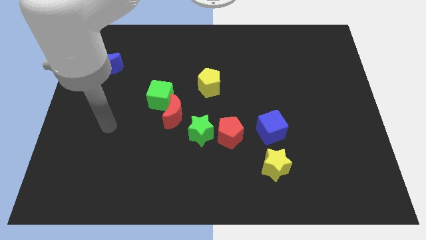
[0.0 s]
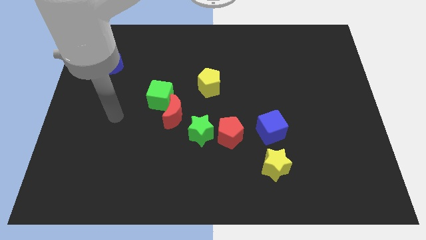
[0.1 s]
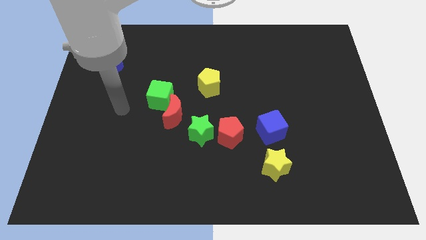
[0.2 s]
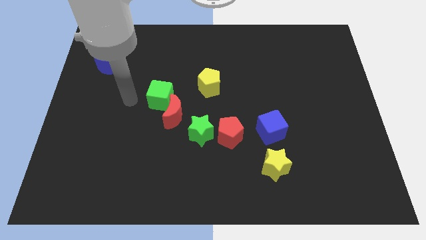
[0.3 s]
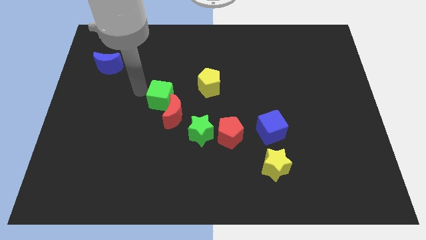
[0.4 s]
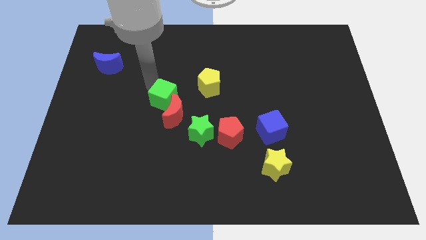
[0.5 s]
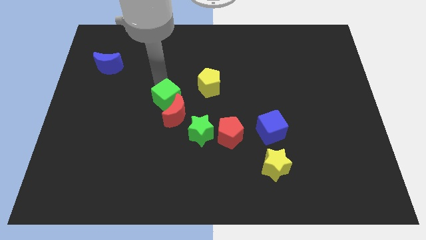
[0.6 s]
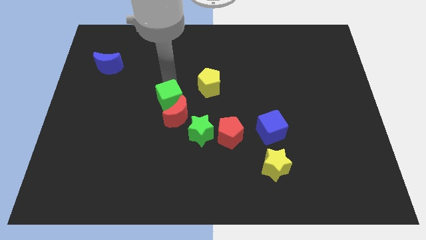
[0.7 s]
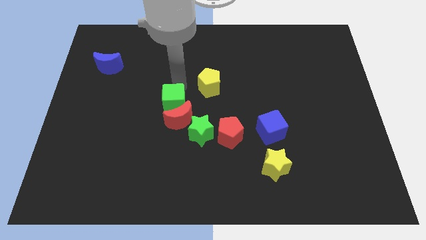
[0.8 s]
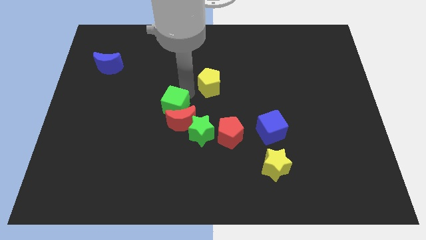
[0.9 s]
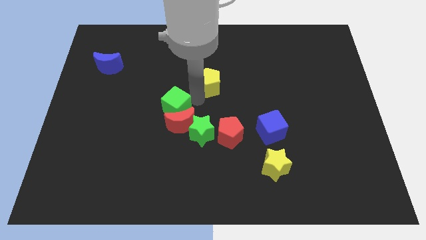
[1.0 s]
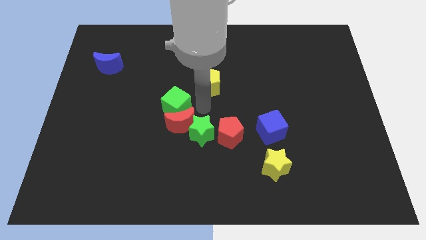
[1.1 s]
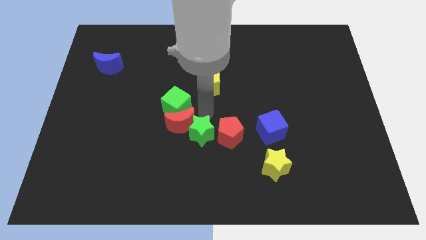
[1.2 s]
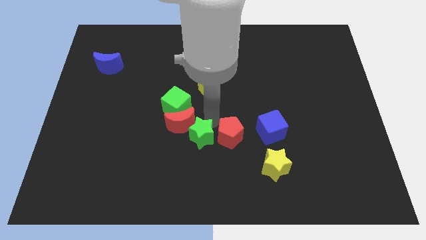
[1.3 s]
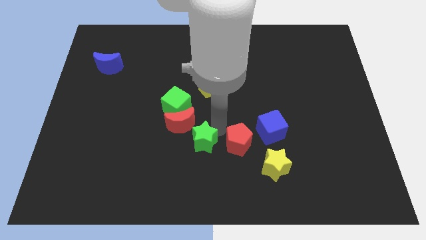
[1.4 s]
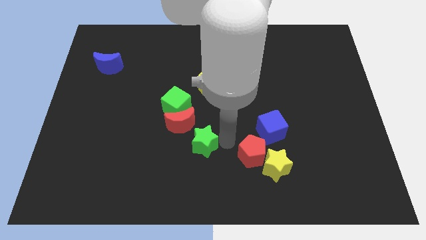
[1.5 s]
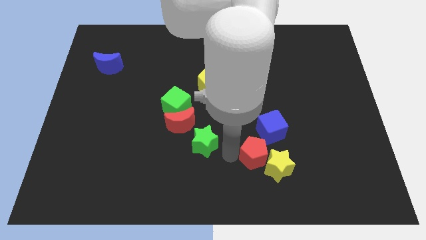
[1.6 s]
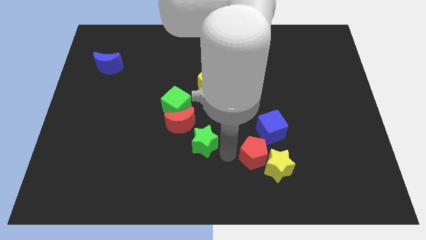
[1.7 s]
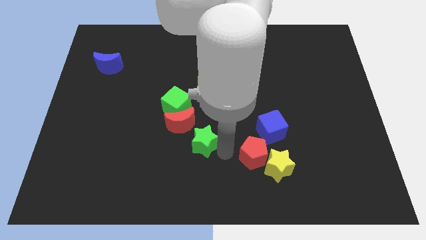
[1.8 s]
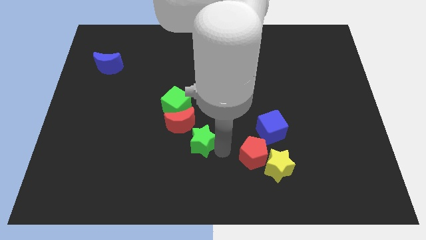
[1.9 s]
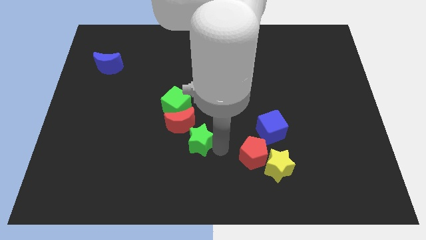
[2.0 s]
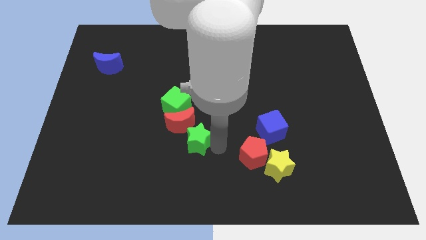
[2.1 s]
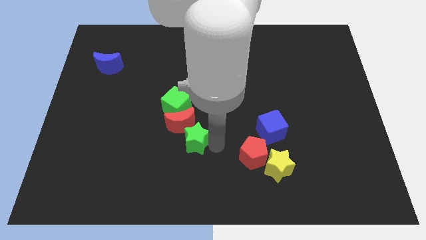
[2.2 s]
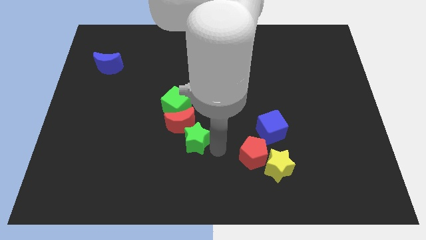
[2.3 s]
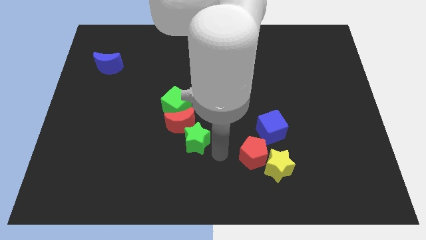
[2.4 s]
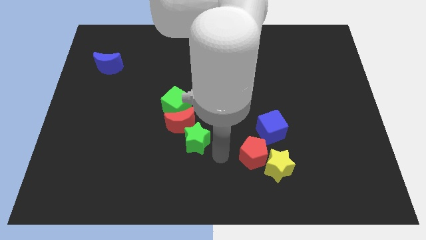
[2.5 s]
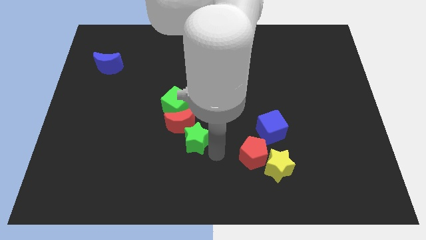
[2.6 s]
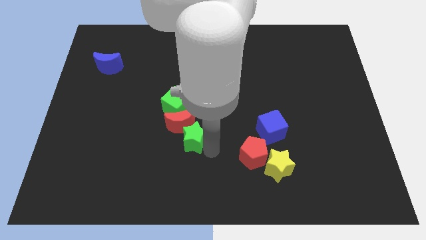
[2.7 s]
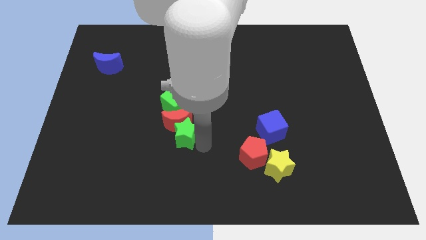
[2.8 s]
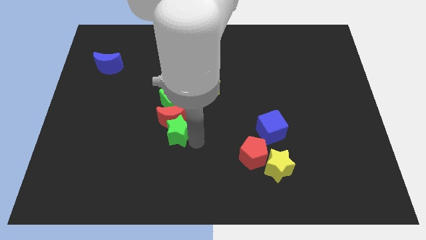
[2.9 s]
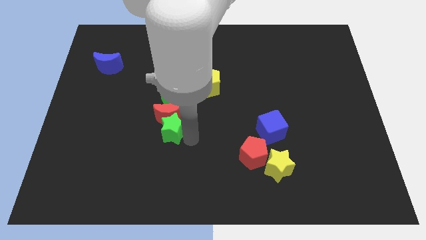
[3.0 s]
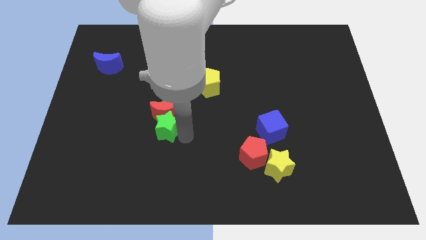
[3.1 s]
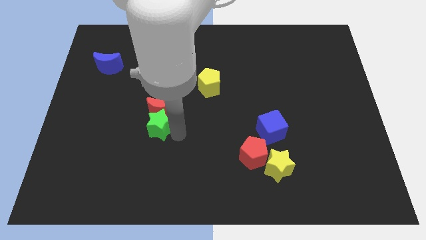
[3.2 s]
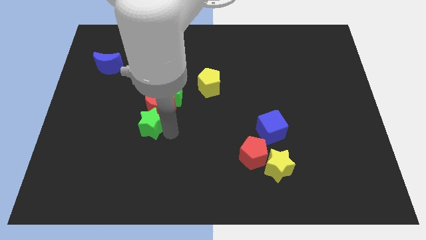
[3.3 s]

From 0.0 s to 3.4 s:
move the green star upwards and then left somewhat

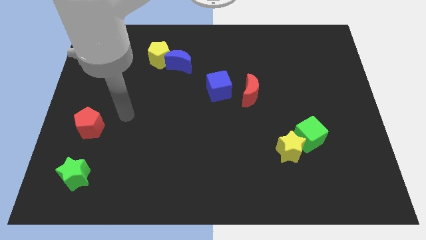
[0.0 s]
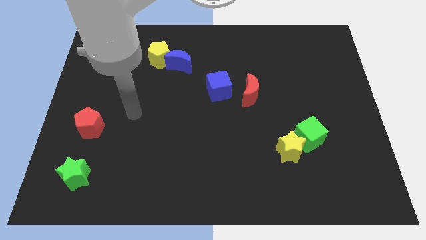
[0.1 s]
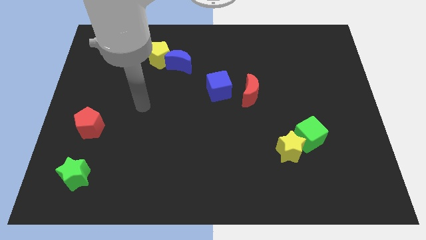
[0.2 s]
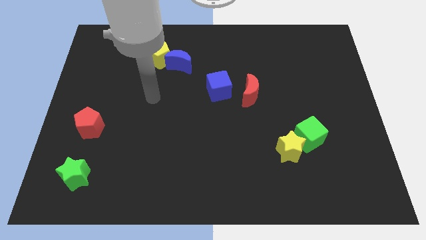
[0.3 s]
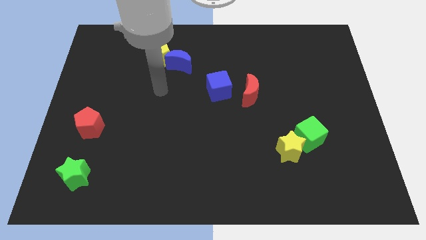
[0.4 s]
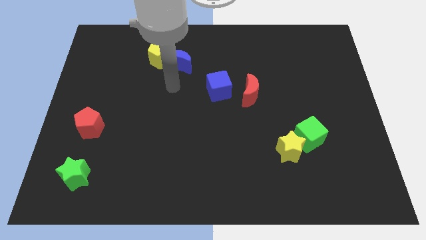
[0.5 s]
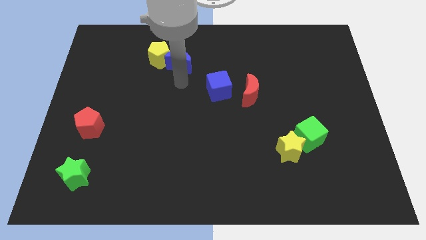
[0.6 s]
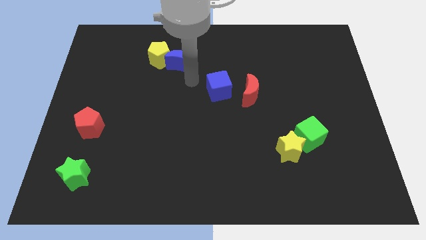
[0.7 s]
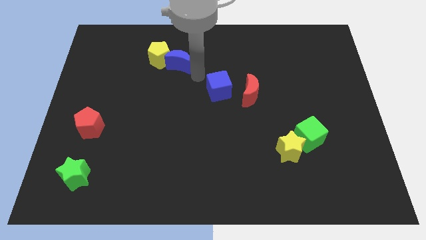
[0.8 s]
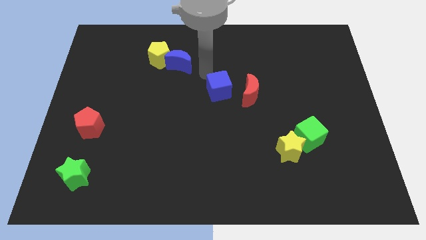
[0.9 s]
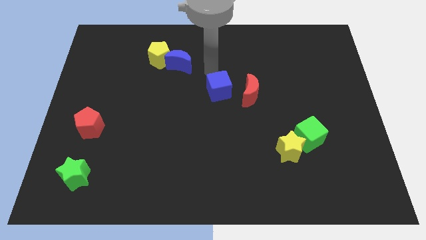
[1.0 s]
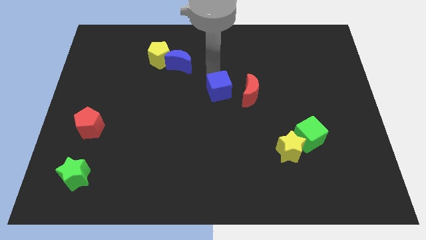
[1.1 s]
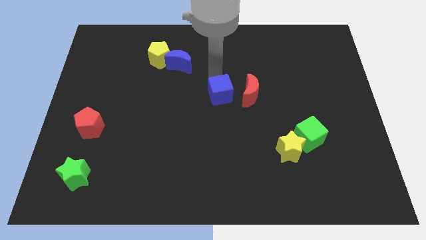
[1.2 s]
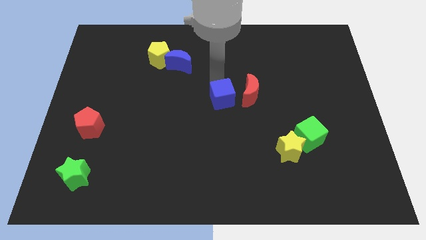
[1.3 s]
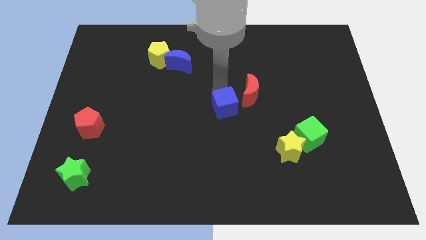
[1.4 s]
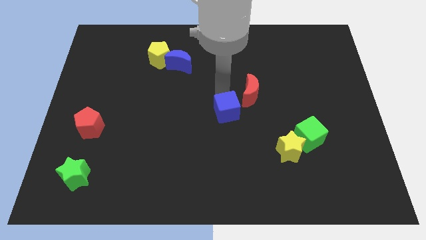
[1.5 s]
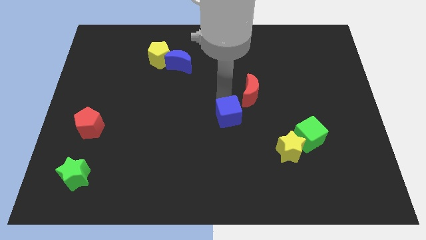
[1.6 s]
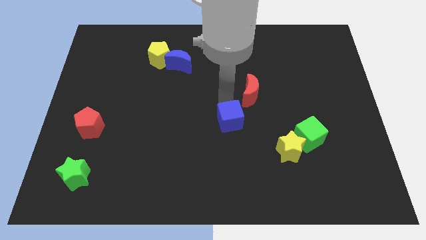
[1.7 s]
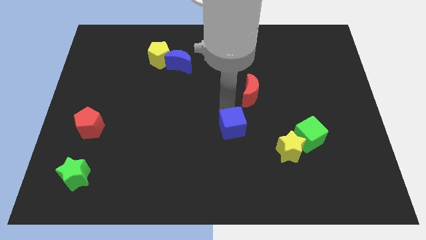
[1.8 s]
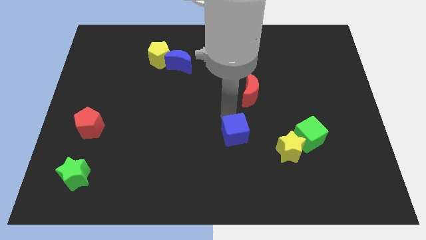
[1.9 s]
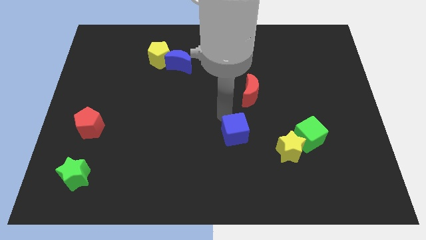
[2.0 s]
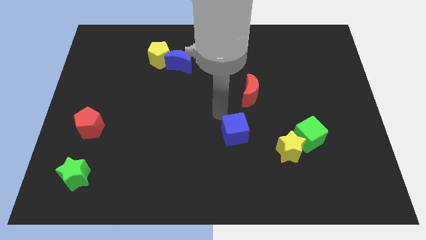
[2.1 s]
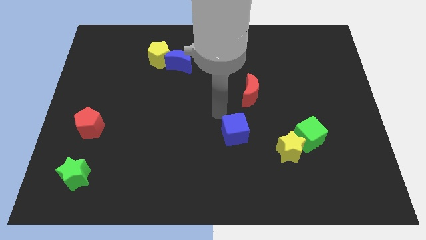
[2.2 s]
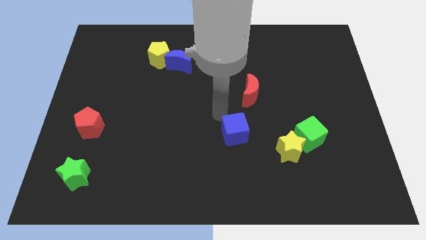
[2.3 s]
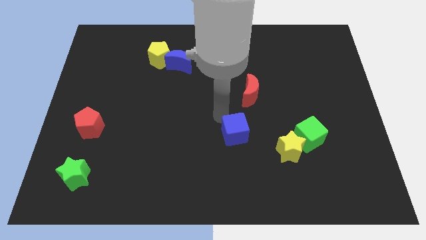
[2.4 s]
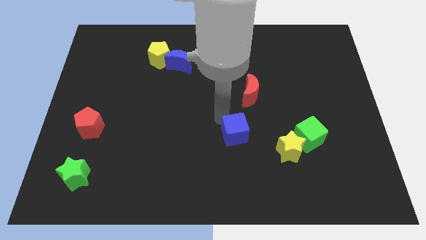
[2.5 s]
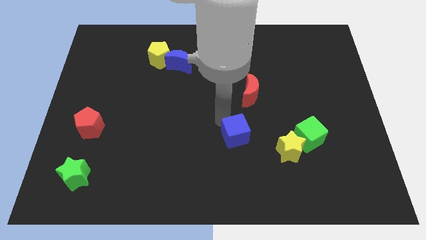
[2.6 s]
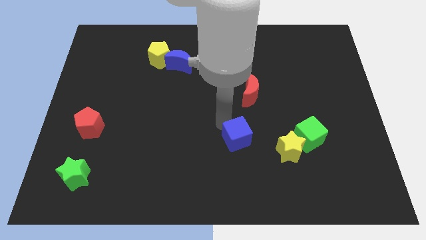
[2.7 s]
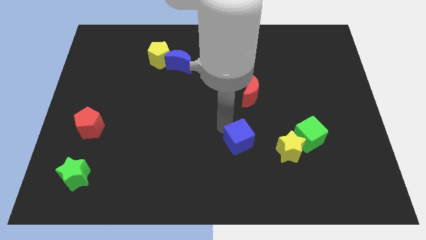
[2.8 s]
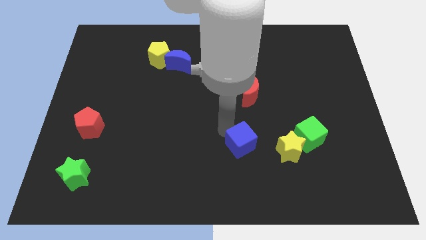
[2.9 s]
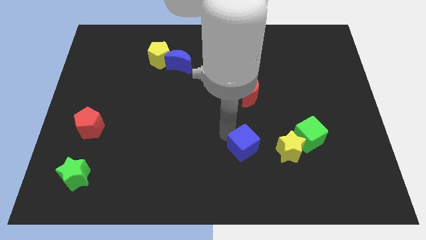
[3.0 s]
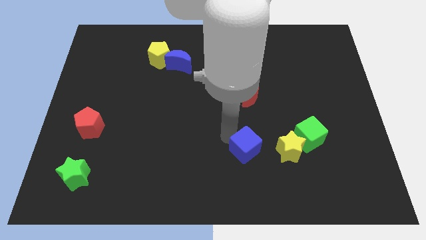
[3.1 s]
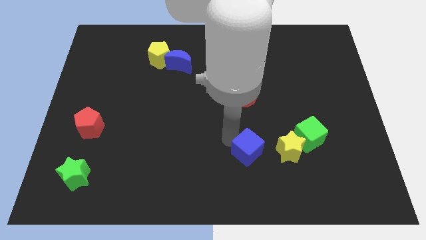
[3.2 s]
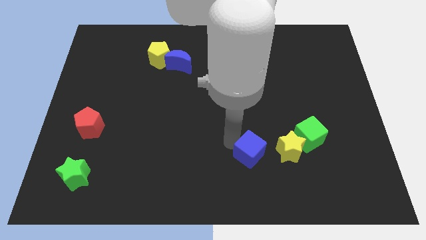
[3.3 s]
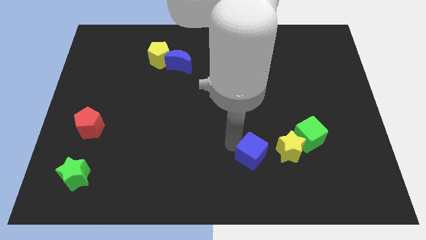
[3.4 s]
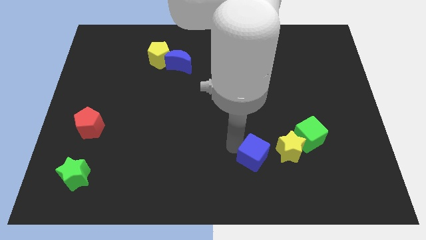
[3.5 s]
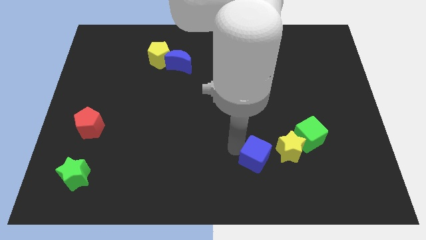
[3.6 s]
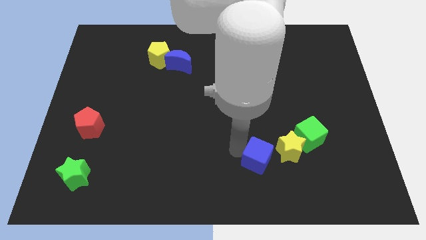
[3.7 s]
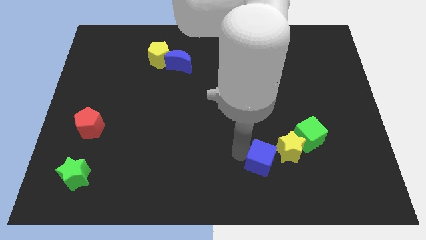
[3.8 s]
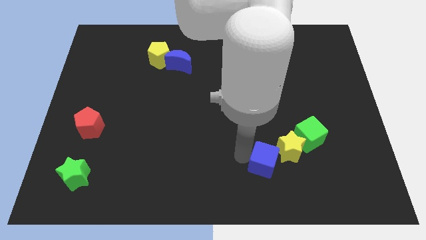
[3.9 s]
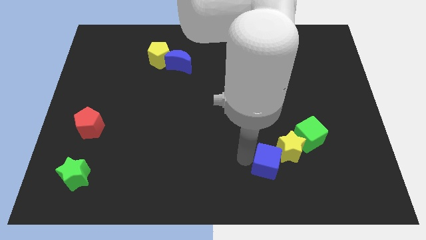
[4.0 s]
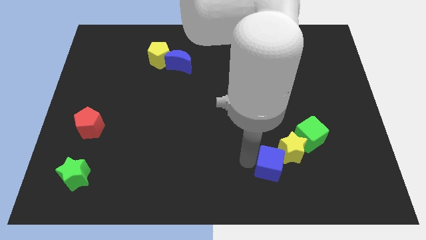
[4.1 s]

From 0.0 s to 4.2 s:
slide the blue cube down and then to the right

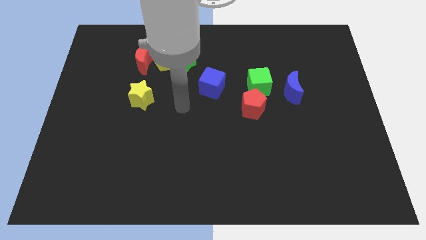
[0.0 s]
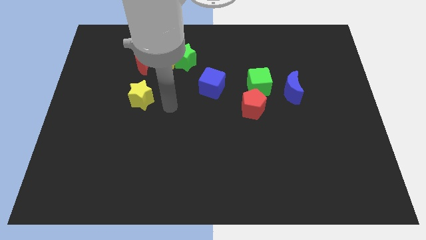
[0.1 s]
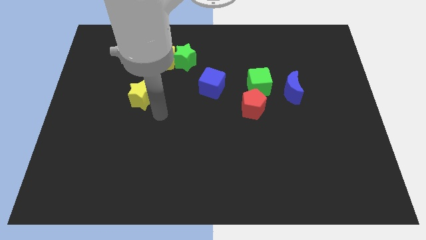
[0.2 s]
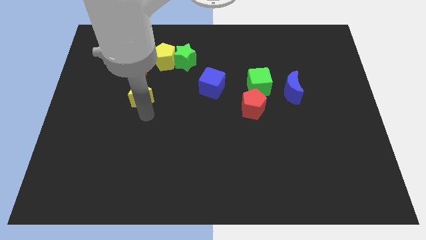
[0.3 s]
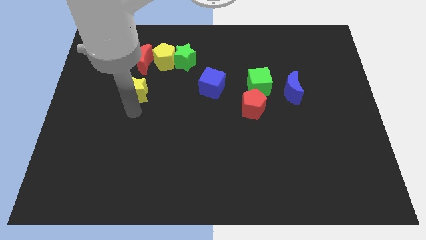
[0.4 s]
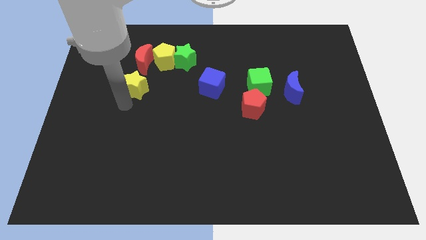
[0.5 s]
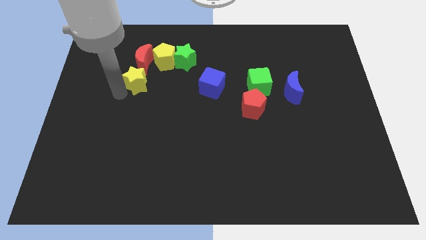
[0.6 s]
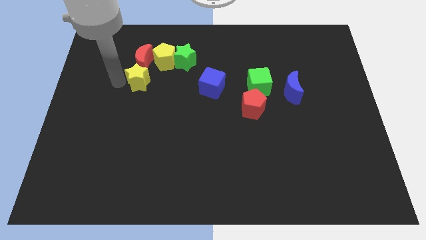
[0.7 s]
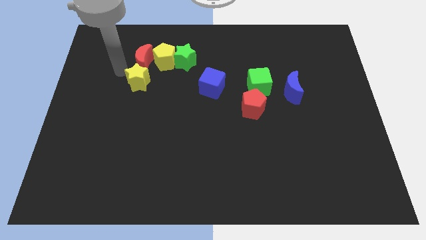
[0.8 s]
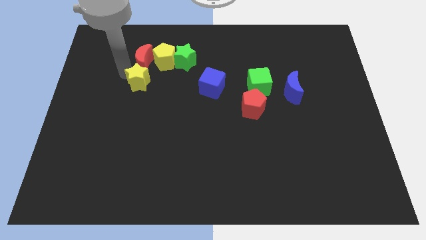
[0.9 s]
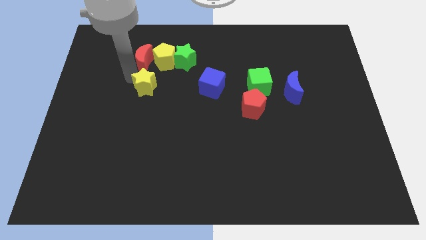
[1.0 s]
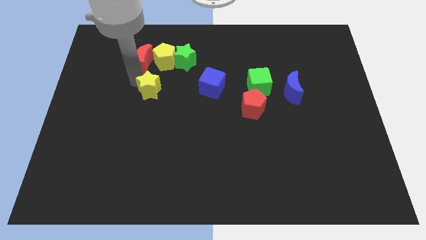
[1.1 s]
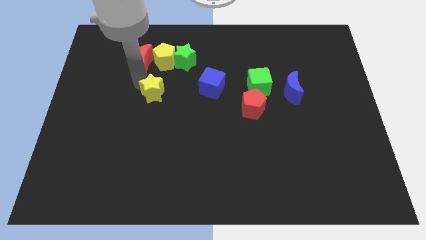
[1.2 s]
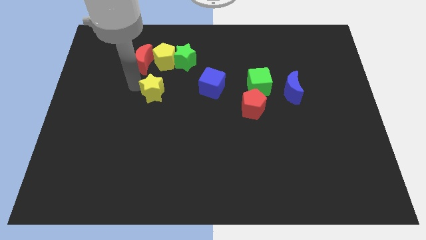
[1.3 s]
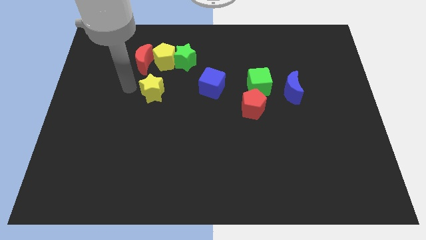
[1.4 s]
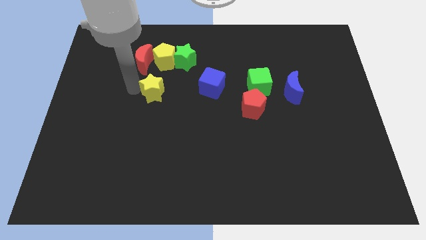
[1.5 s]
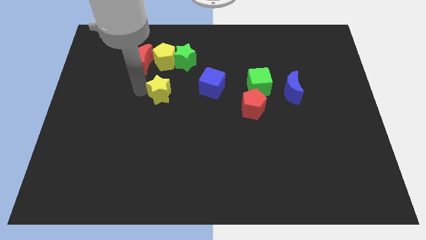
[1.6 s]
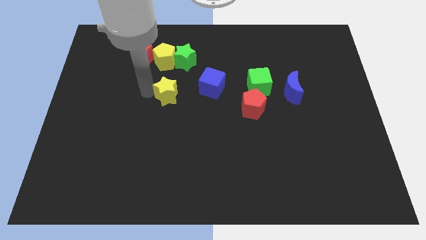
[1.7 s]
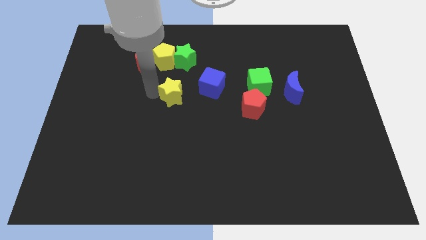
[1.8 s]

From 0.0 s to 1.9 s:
slide the yellow star a bit right
